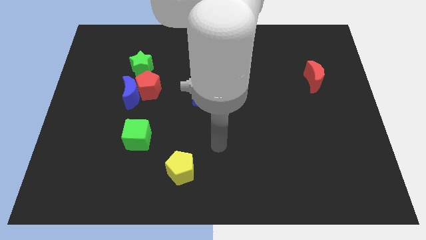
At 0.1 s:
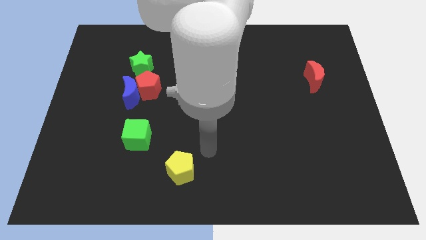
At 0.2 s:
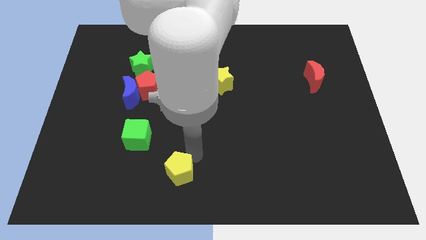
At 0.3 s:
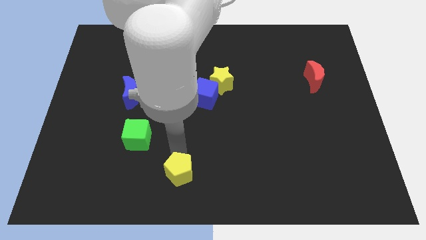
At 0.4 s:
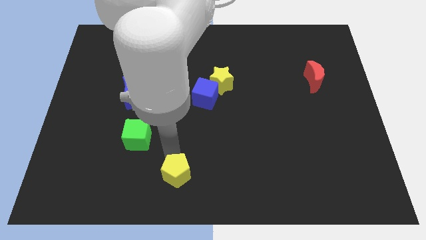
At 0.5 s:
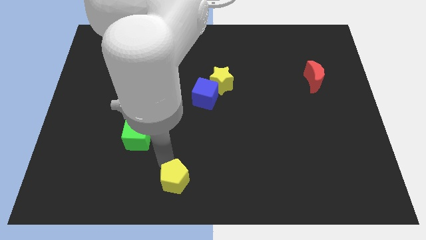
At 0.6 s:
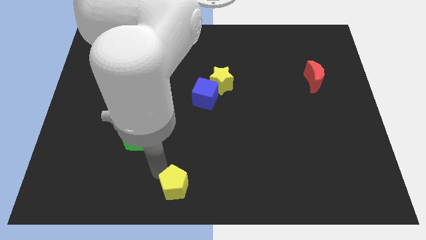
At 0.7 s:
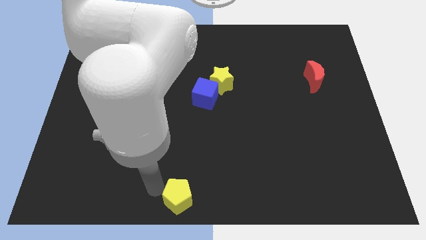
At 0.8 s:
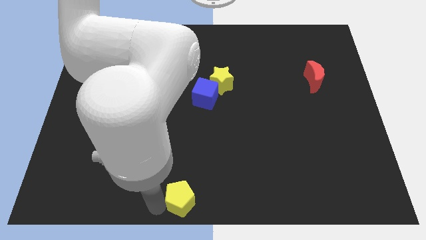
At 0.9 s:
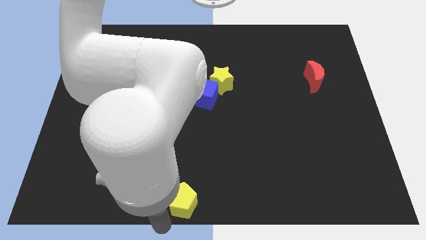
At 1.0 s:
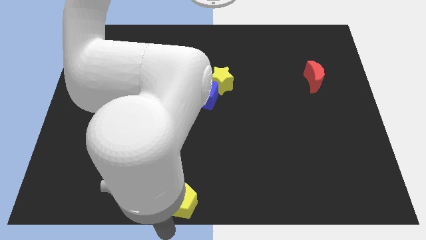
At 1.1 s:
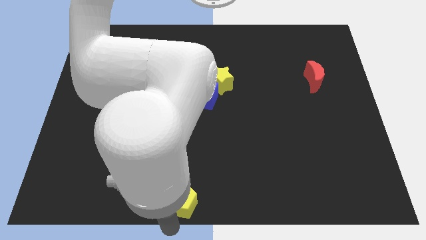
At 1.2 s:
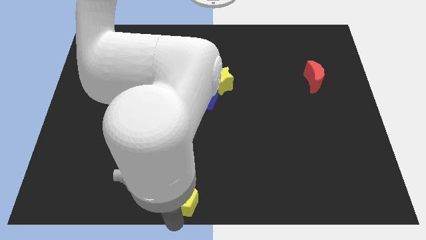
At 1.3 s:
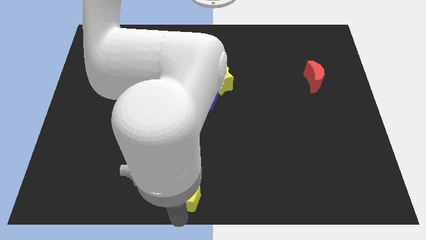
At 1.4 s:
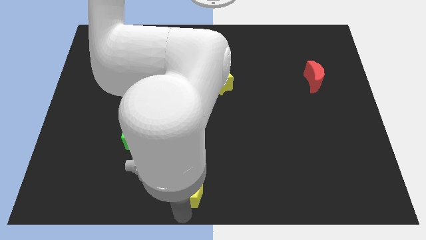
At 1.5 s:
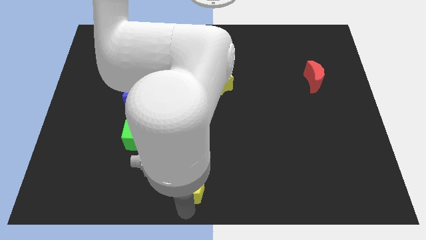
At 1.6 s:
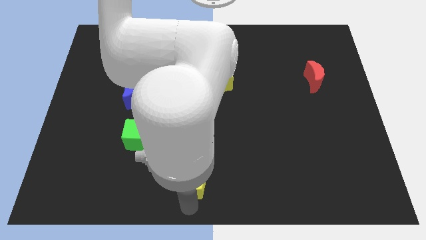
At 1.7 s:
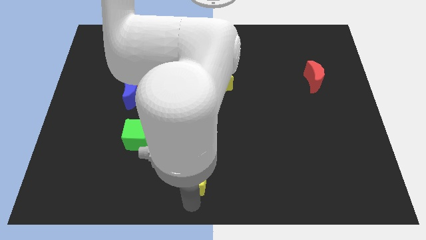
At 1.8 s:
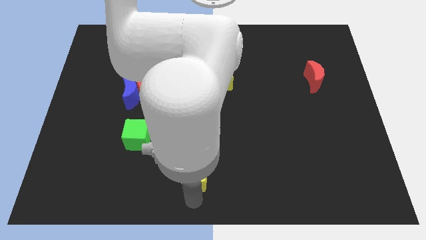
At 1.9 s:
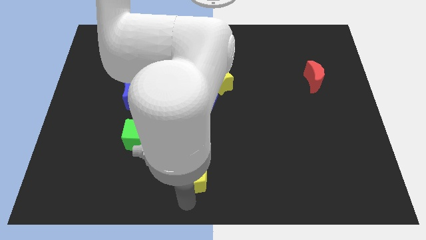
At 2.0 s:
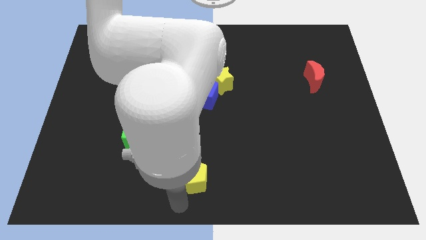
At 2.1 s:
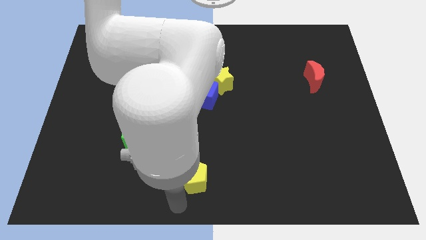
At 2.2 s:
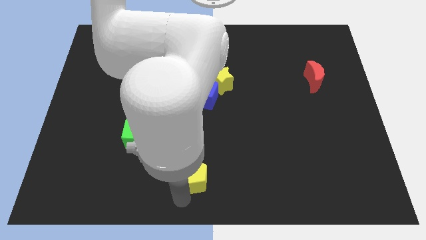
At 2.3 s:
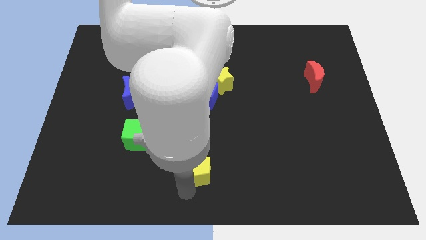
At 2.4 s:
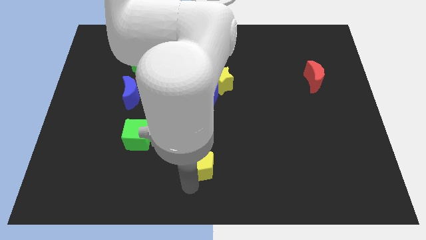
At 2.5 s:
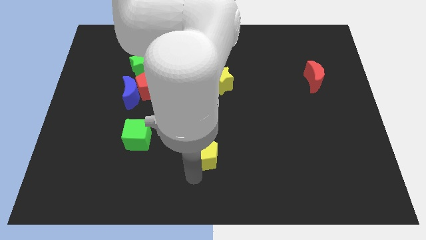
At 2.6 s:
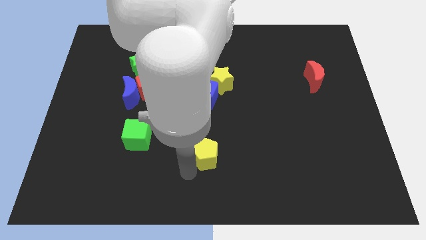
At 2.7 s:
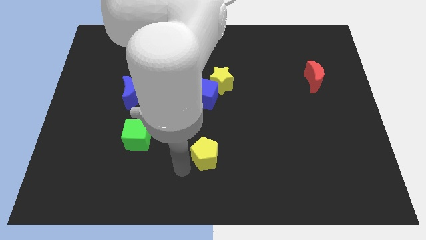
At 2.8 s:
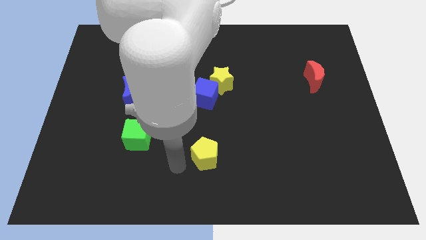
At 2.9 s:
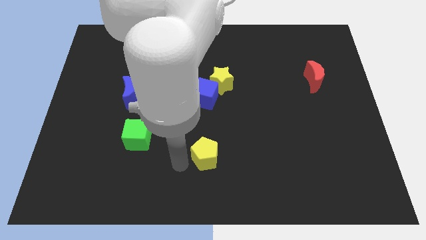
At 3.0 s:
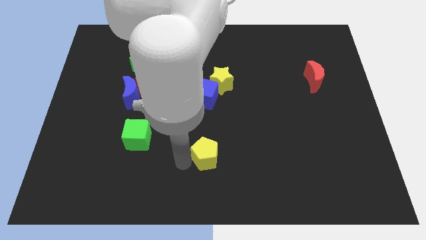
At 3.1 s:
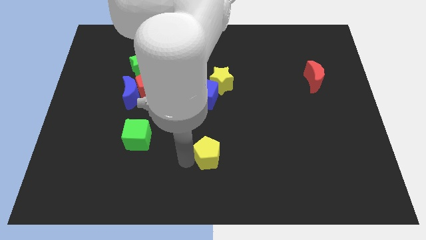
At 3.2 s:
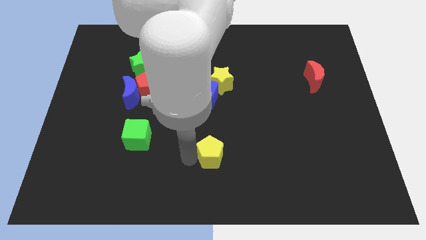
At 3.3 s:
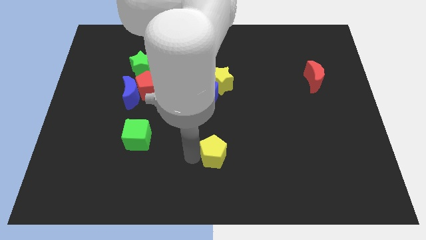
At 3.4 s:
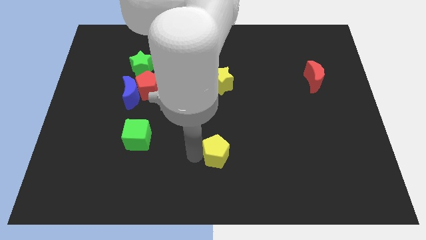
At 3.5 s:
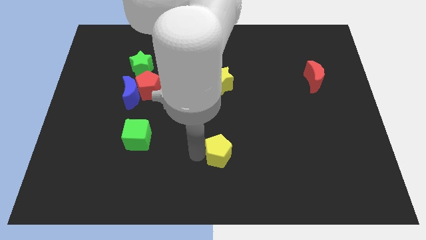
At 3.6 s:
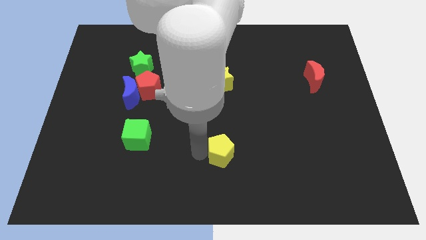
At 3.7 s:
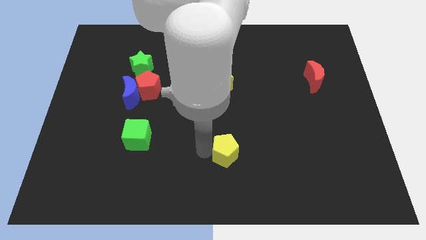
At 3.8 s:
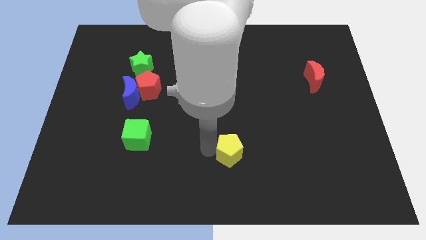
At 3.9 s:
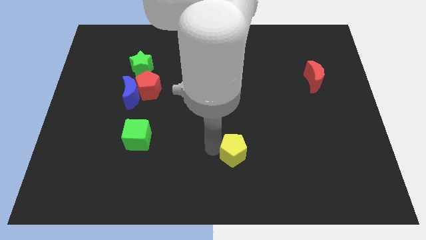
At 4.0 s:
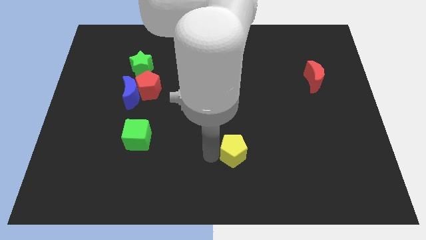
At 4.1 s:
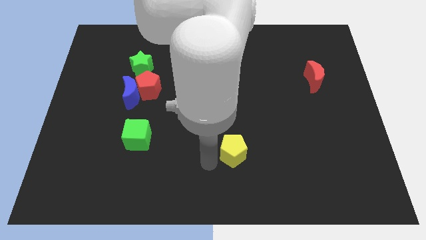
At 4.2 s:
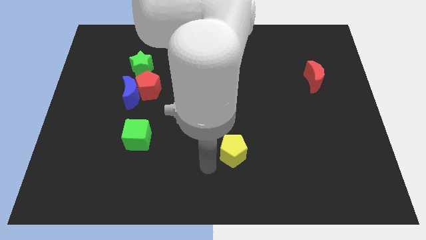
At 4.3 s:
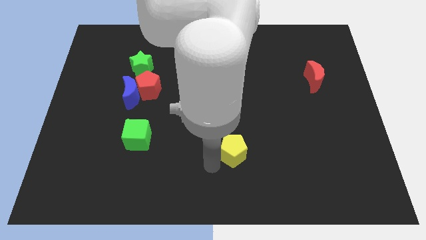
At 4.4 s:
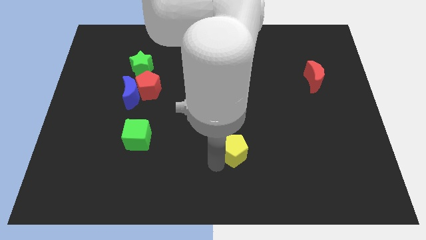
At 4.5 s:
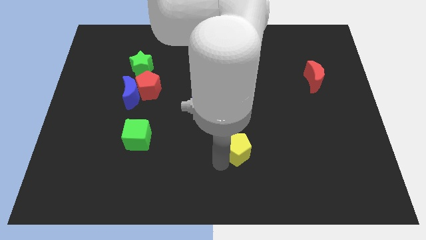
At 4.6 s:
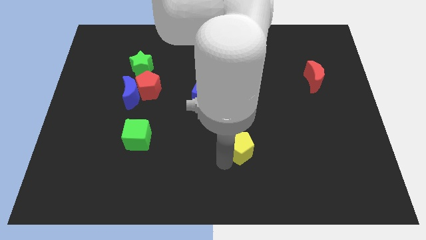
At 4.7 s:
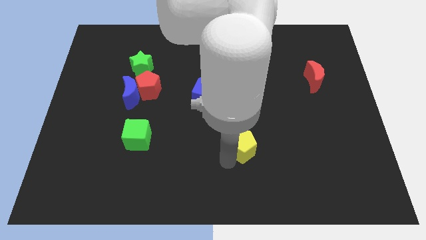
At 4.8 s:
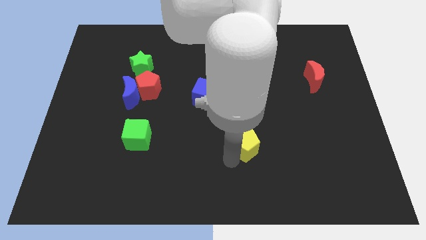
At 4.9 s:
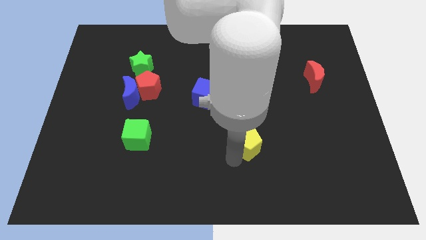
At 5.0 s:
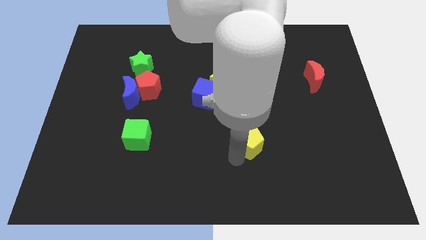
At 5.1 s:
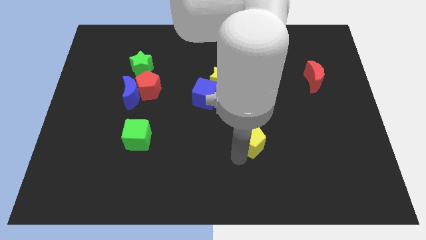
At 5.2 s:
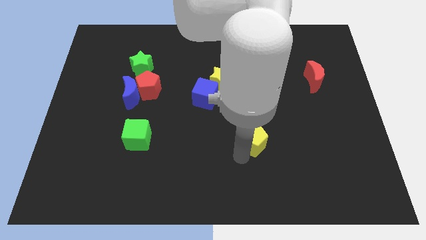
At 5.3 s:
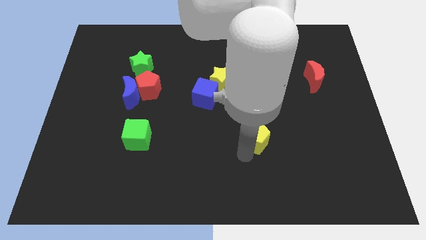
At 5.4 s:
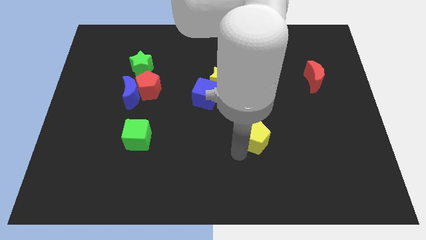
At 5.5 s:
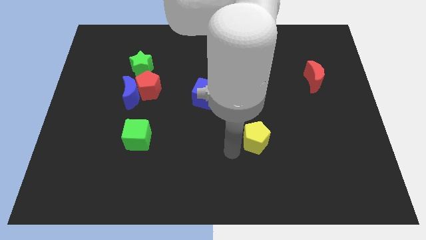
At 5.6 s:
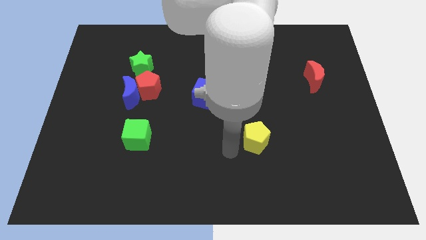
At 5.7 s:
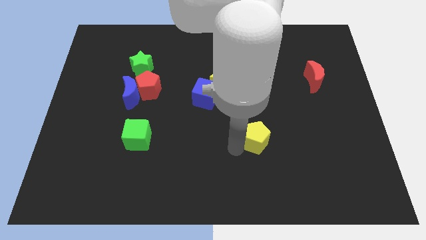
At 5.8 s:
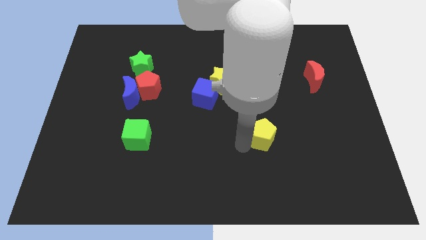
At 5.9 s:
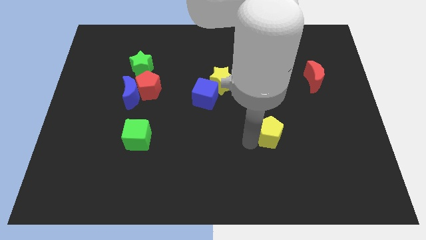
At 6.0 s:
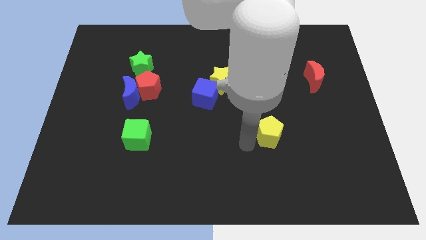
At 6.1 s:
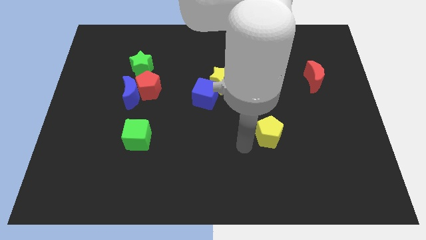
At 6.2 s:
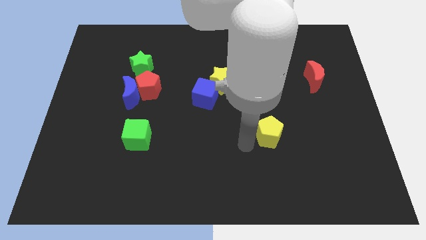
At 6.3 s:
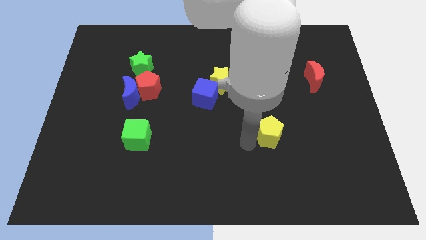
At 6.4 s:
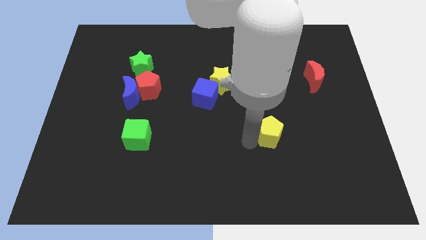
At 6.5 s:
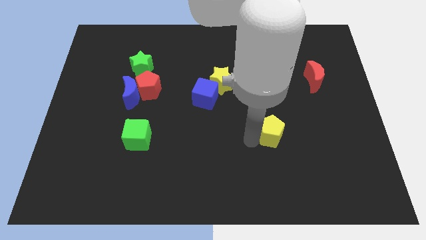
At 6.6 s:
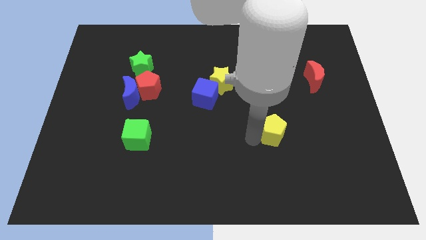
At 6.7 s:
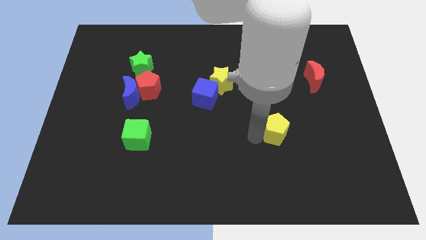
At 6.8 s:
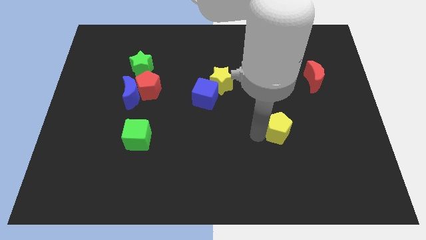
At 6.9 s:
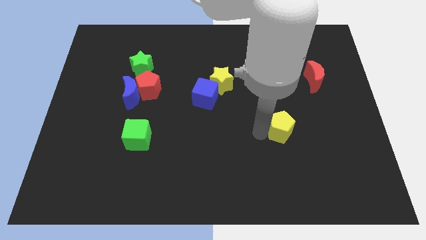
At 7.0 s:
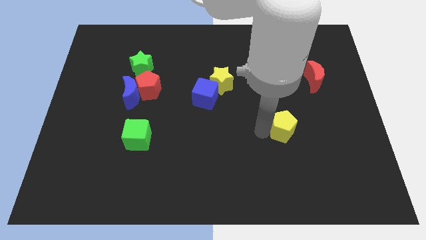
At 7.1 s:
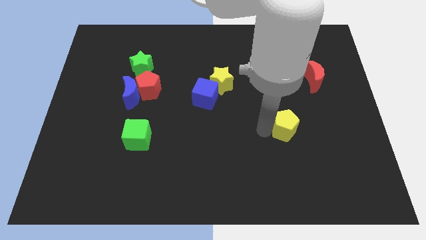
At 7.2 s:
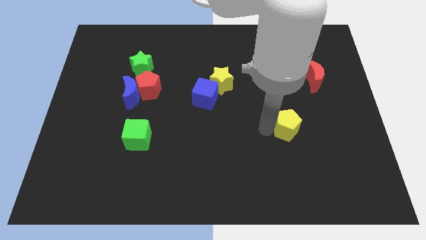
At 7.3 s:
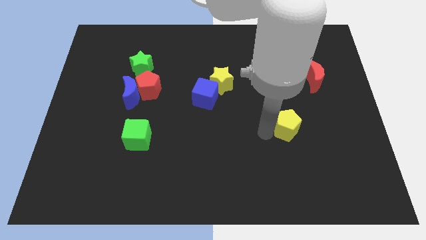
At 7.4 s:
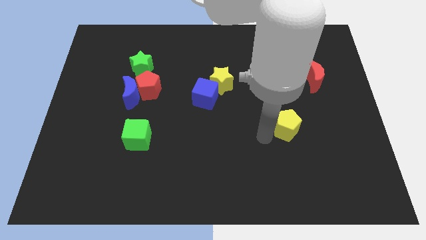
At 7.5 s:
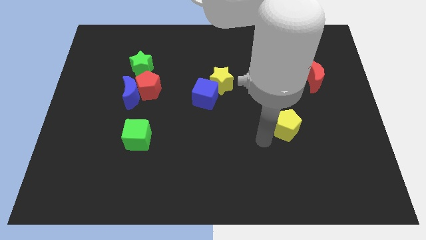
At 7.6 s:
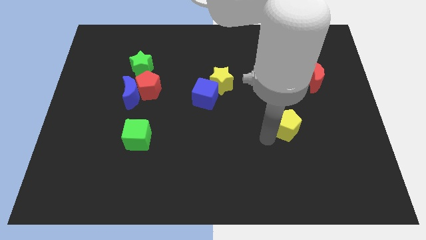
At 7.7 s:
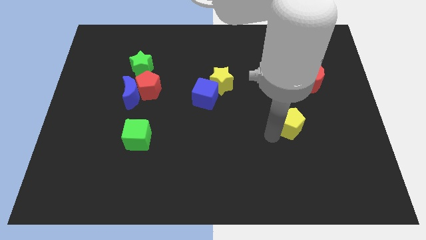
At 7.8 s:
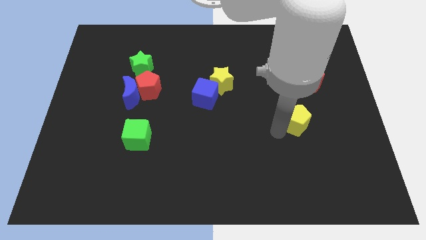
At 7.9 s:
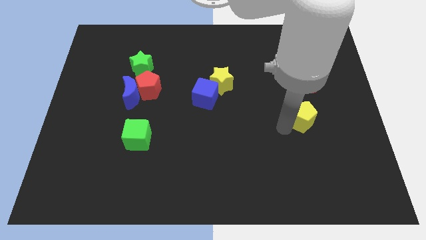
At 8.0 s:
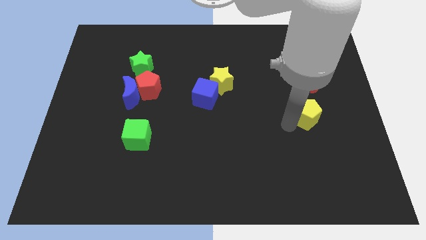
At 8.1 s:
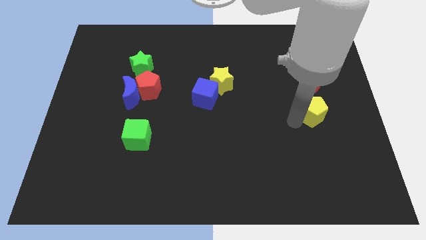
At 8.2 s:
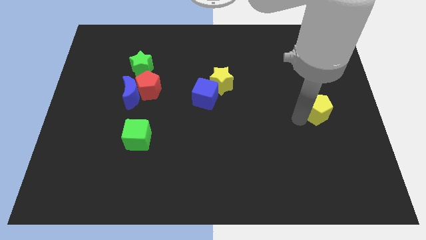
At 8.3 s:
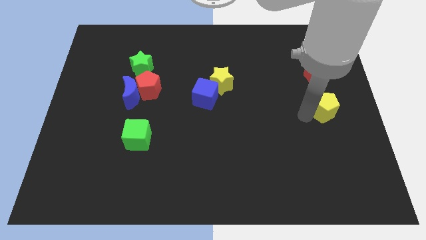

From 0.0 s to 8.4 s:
move the yellow pentagon to the center right
